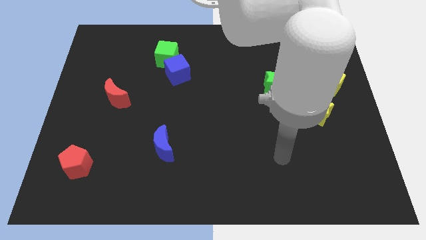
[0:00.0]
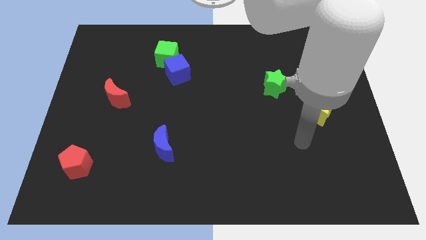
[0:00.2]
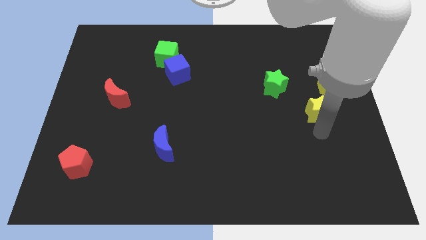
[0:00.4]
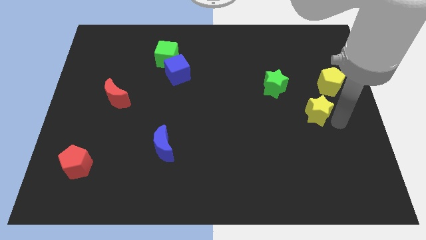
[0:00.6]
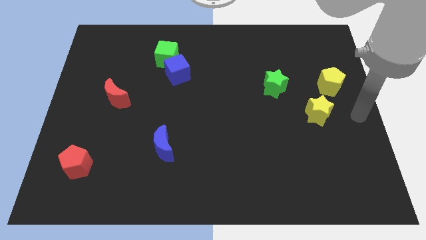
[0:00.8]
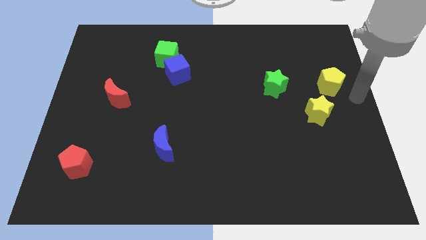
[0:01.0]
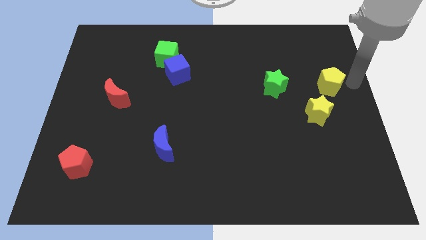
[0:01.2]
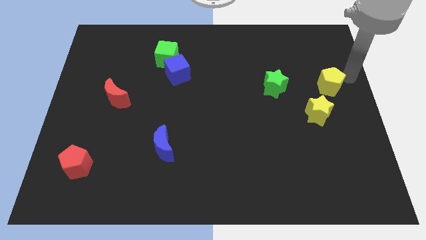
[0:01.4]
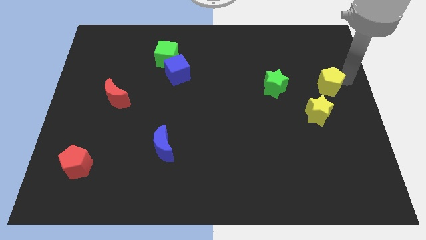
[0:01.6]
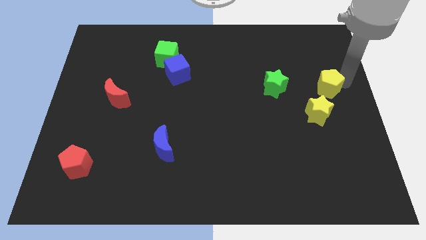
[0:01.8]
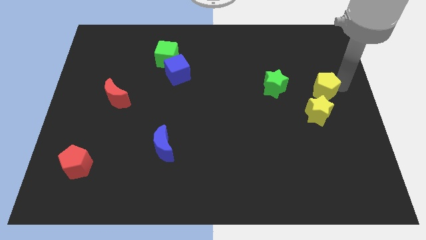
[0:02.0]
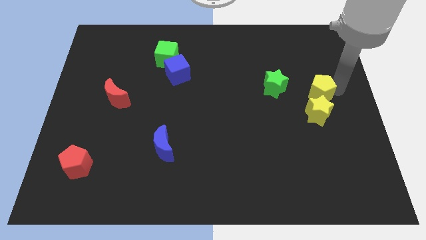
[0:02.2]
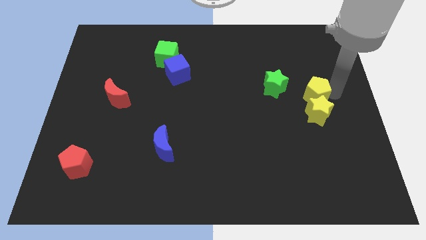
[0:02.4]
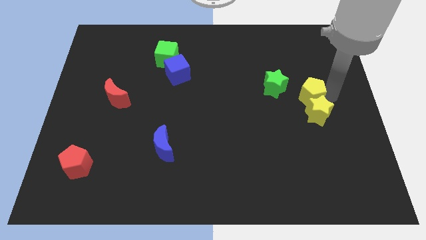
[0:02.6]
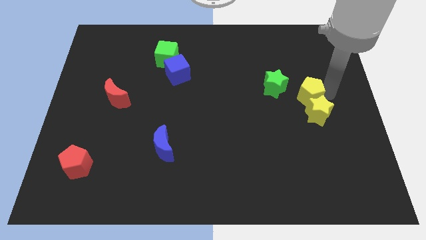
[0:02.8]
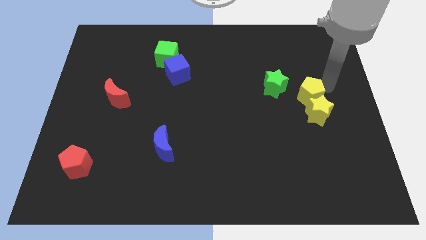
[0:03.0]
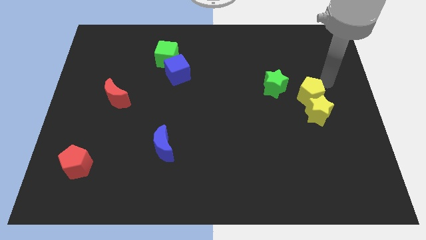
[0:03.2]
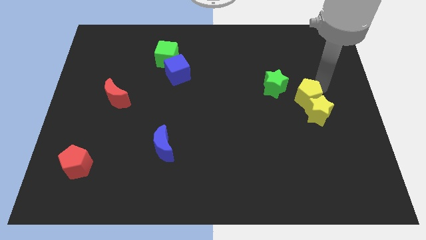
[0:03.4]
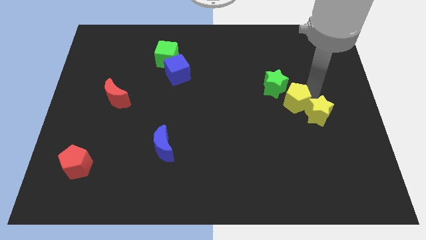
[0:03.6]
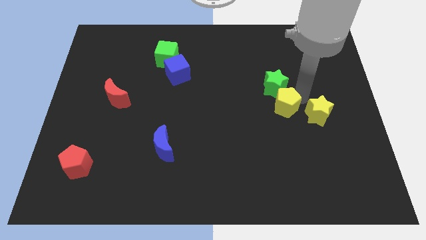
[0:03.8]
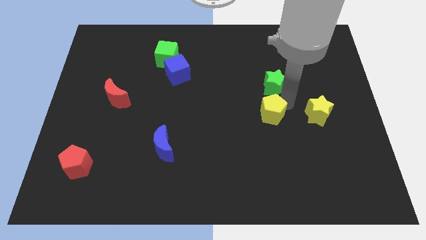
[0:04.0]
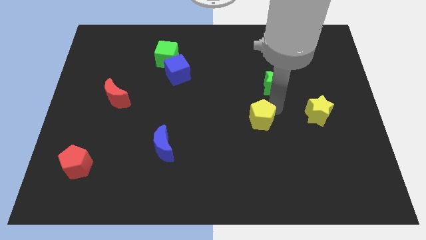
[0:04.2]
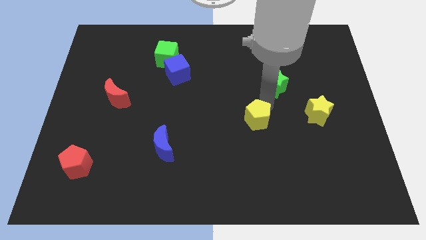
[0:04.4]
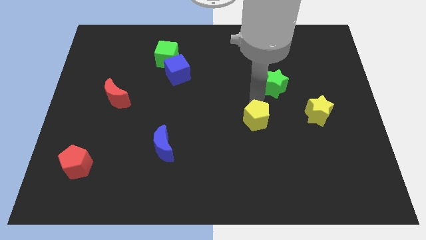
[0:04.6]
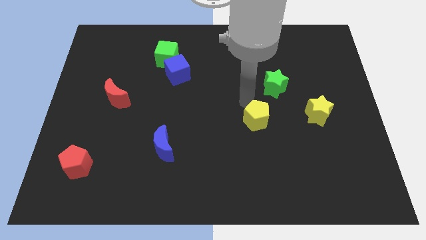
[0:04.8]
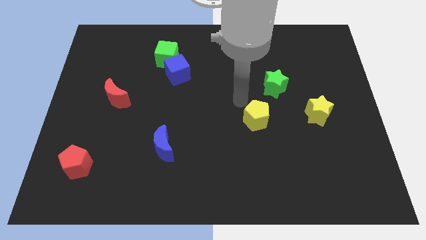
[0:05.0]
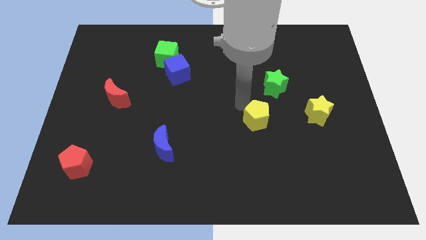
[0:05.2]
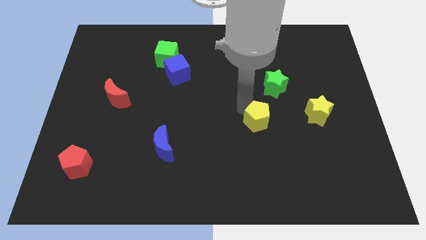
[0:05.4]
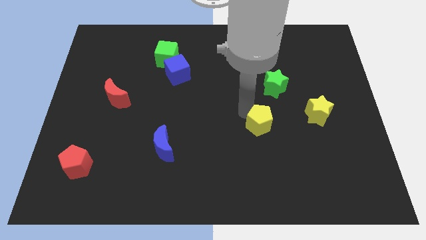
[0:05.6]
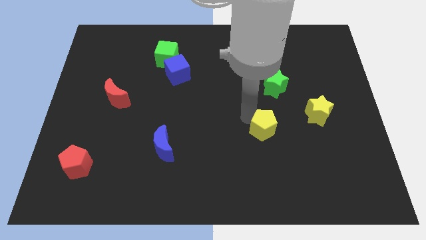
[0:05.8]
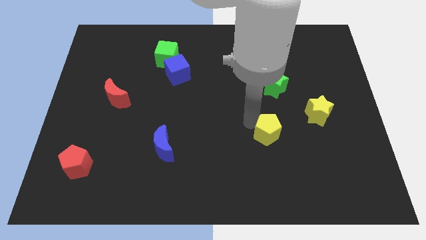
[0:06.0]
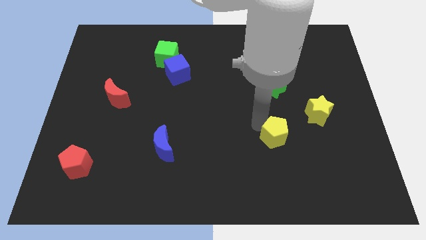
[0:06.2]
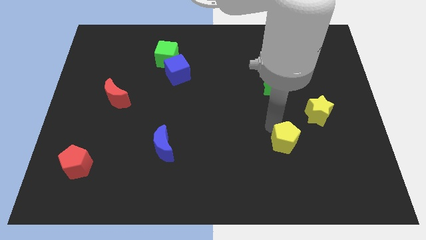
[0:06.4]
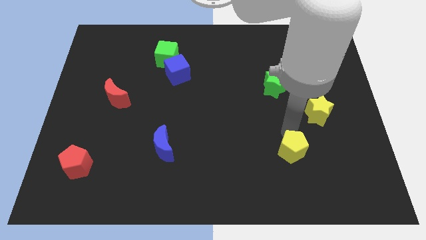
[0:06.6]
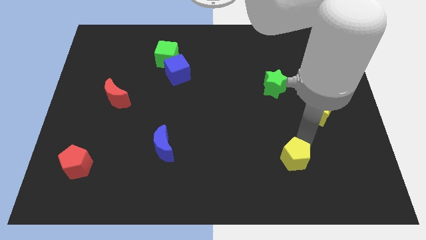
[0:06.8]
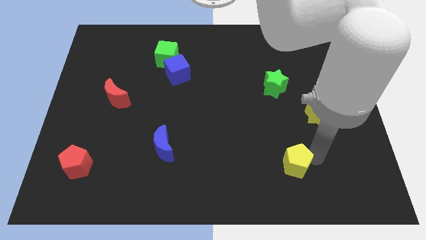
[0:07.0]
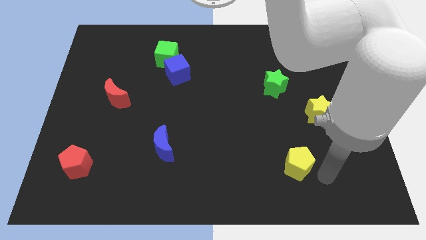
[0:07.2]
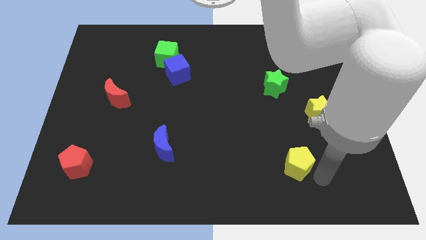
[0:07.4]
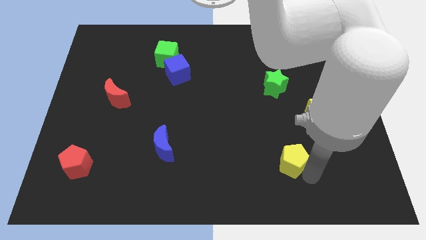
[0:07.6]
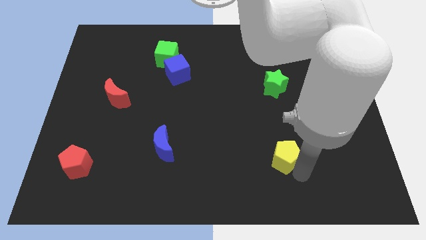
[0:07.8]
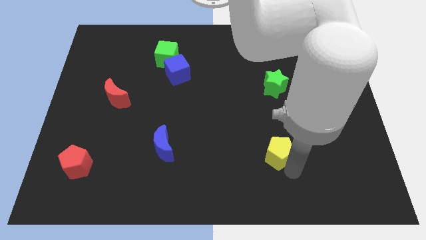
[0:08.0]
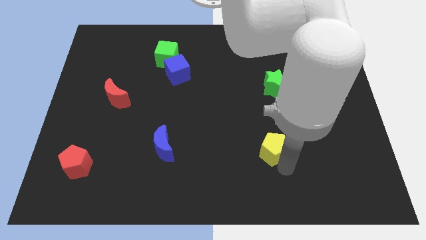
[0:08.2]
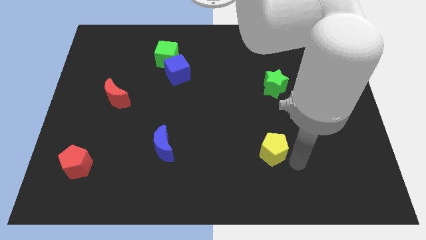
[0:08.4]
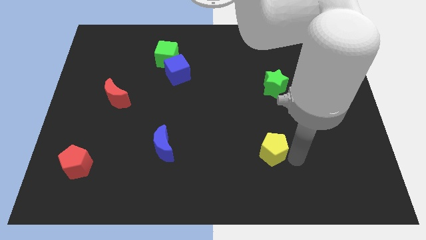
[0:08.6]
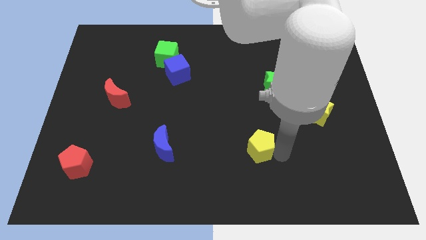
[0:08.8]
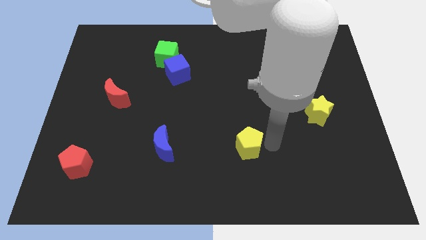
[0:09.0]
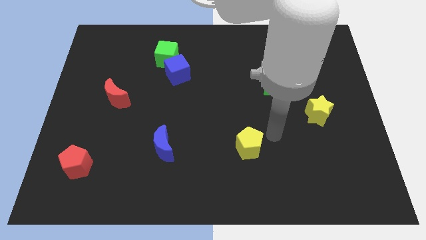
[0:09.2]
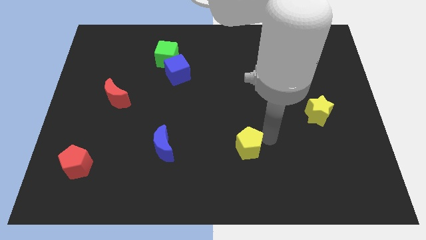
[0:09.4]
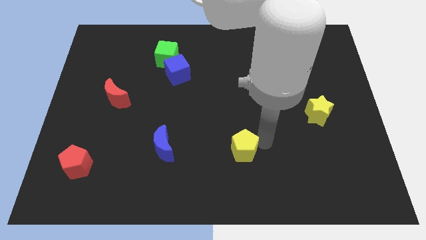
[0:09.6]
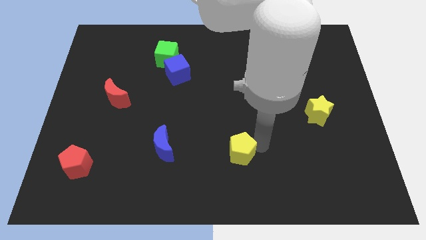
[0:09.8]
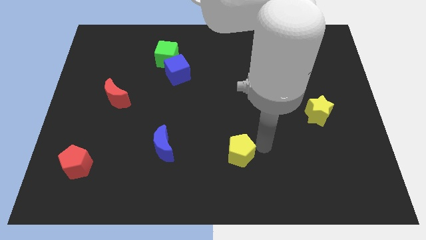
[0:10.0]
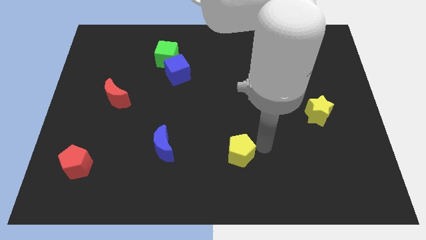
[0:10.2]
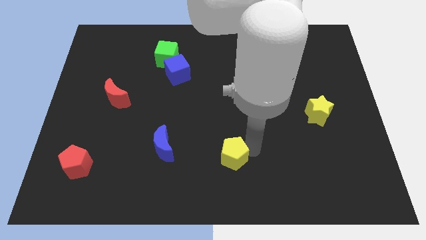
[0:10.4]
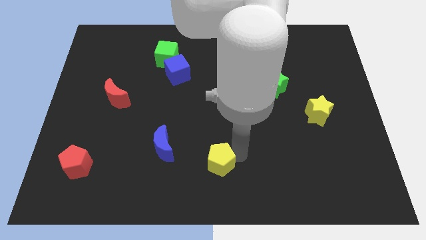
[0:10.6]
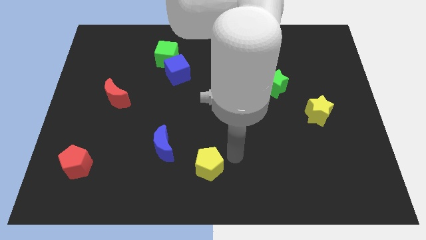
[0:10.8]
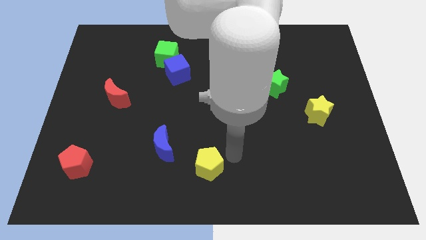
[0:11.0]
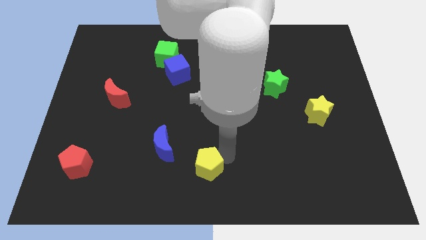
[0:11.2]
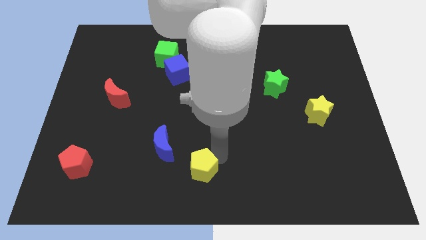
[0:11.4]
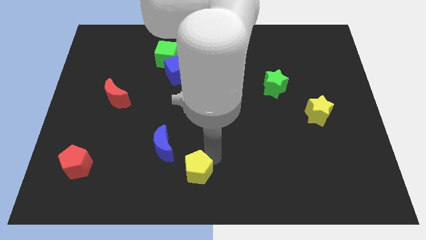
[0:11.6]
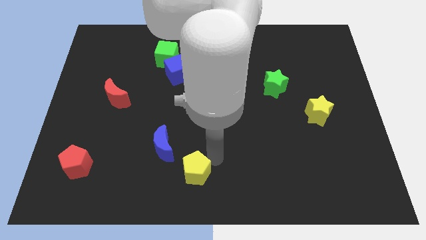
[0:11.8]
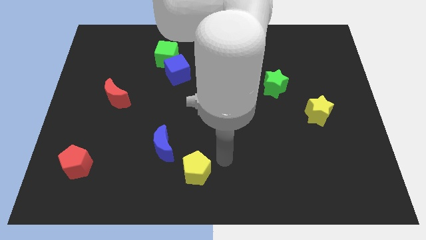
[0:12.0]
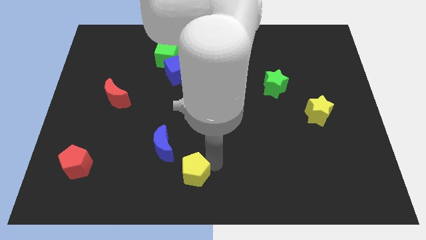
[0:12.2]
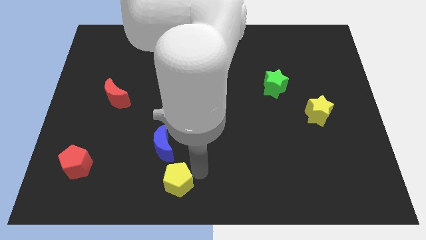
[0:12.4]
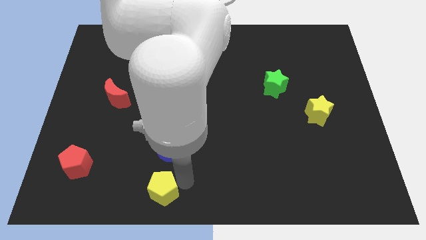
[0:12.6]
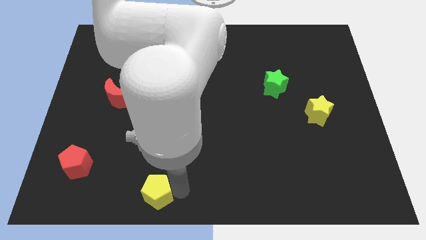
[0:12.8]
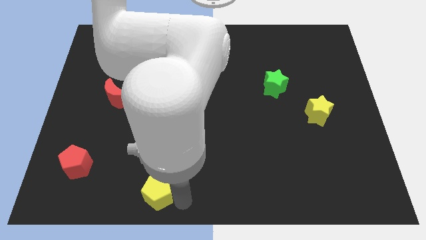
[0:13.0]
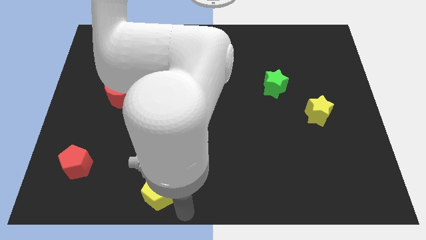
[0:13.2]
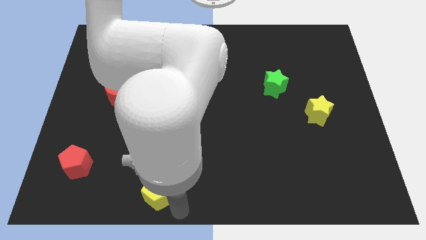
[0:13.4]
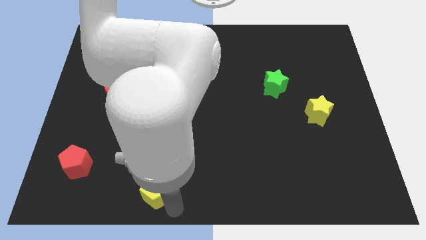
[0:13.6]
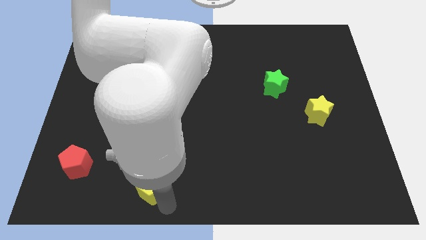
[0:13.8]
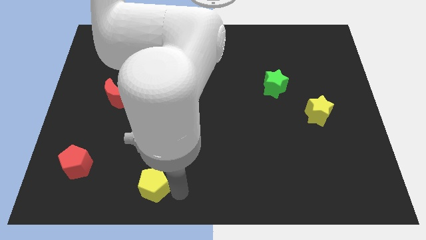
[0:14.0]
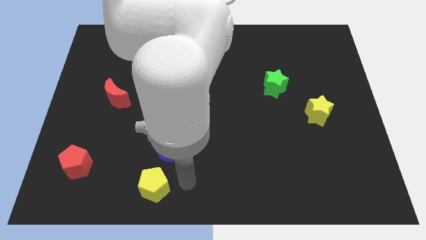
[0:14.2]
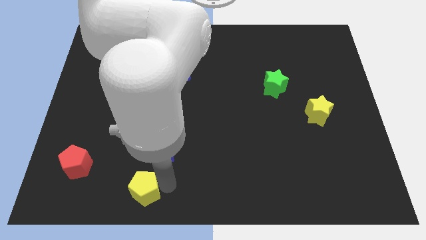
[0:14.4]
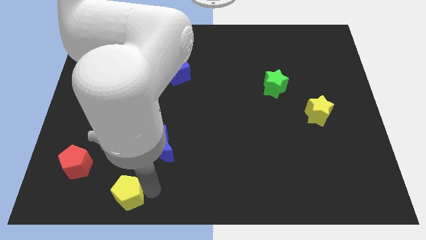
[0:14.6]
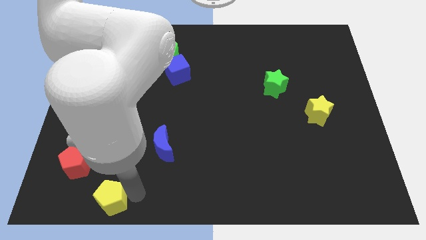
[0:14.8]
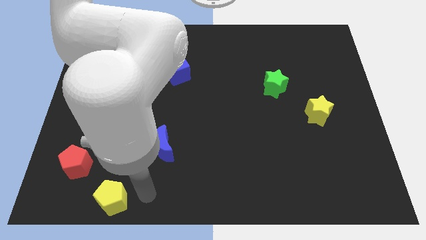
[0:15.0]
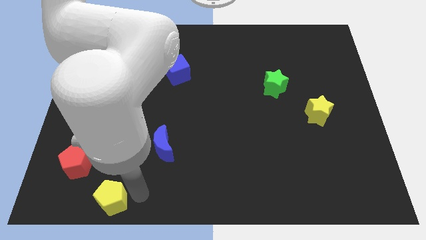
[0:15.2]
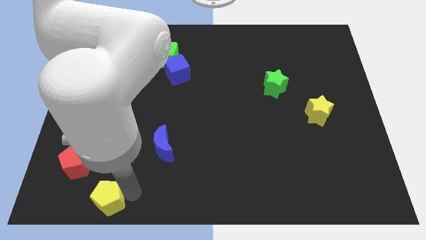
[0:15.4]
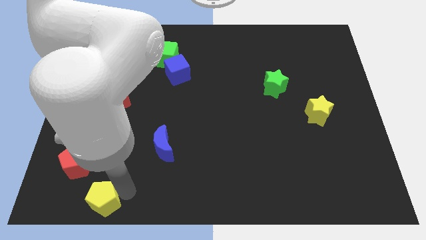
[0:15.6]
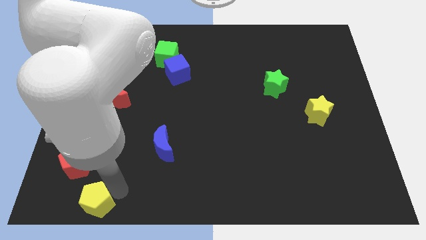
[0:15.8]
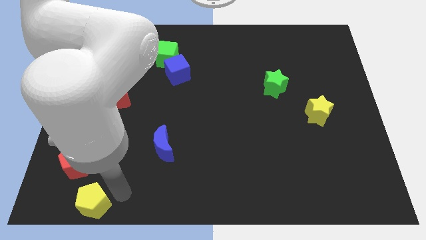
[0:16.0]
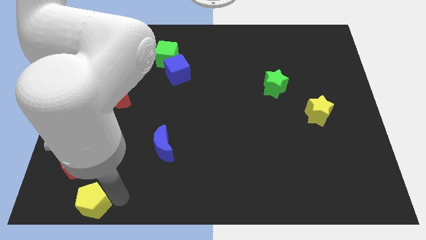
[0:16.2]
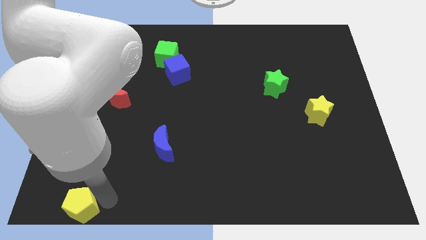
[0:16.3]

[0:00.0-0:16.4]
move the yellow pentagon to the bottom left corner
